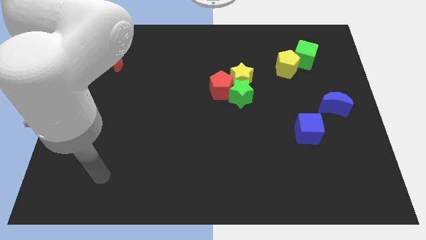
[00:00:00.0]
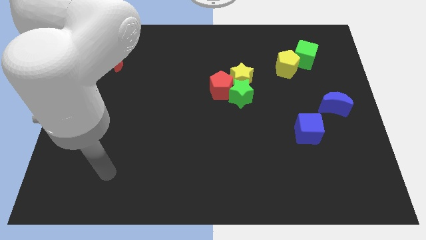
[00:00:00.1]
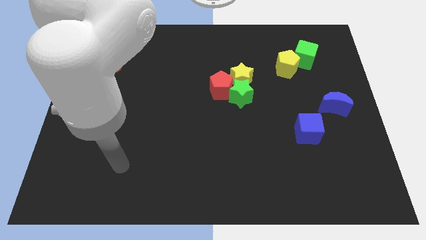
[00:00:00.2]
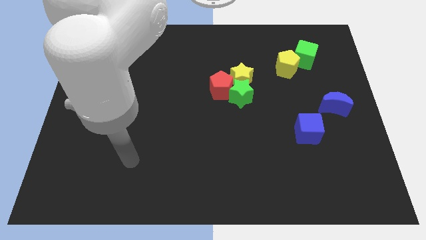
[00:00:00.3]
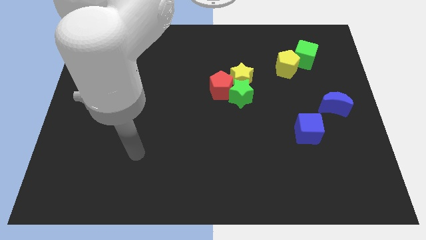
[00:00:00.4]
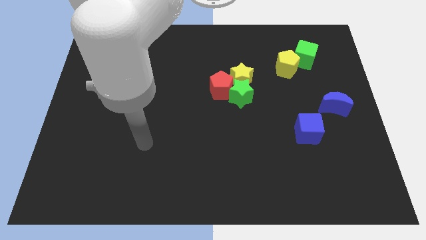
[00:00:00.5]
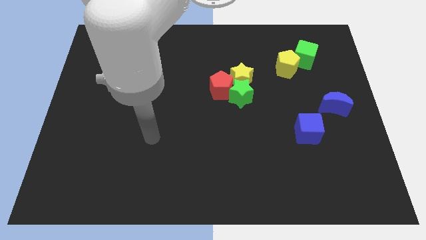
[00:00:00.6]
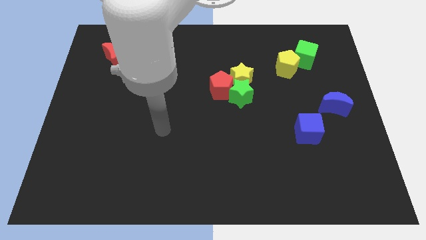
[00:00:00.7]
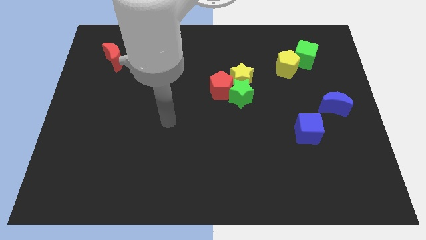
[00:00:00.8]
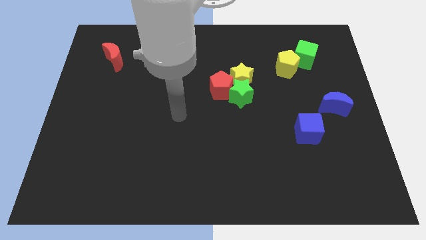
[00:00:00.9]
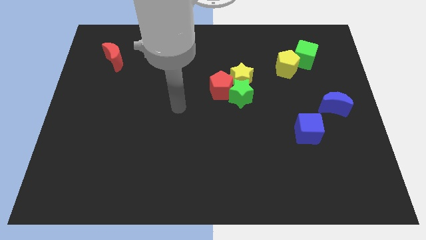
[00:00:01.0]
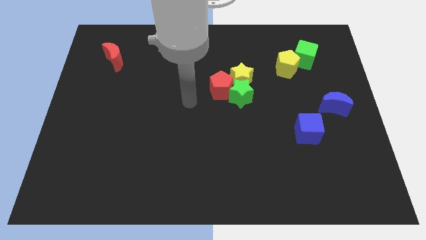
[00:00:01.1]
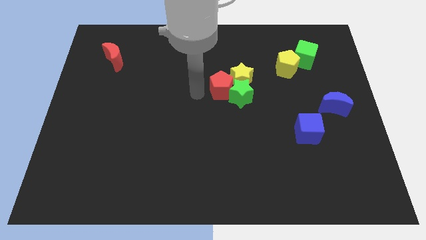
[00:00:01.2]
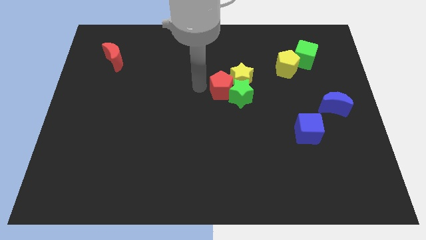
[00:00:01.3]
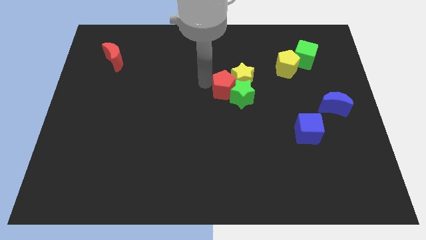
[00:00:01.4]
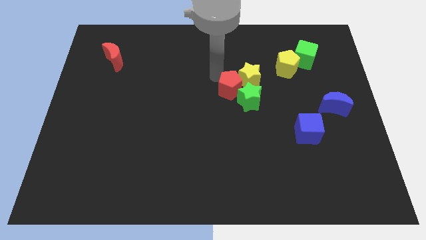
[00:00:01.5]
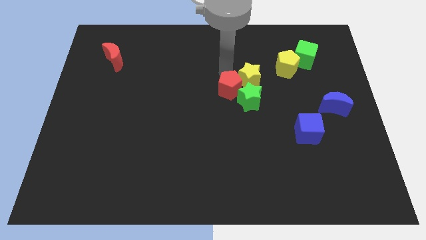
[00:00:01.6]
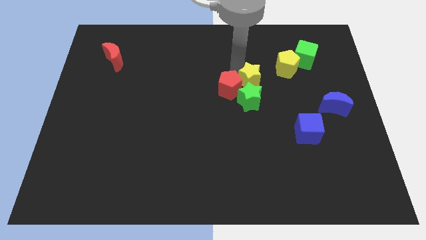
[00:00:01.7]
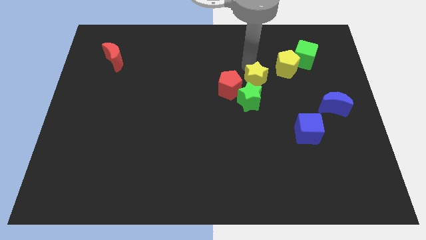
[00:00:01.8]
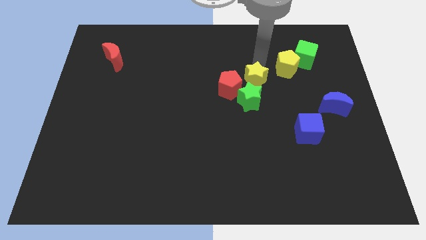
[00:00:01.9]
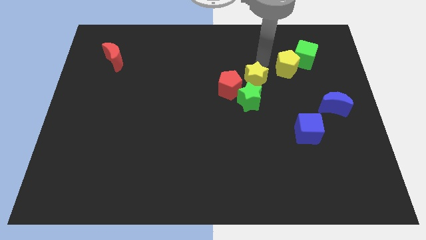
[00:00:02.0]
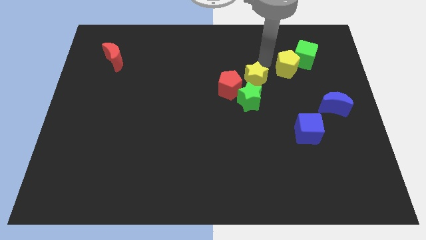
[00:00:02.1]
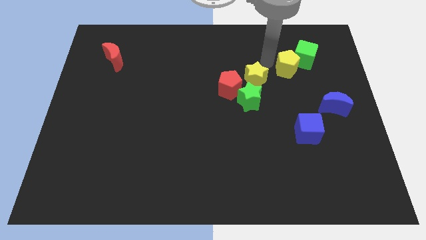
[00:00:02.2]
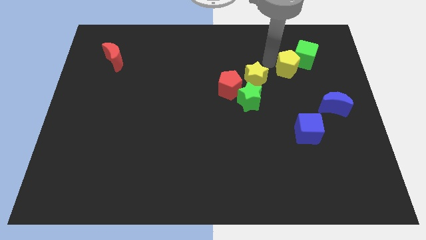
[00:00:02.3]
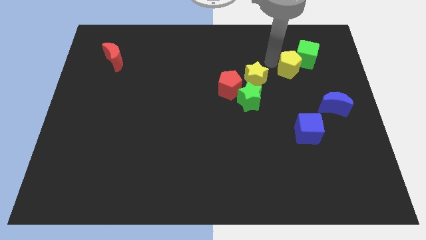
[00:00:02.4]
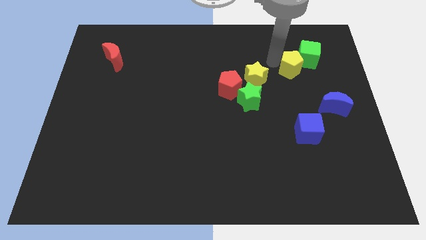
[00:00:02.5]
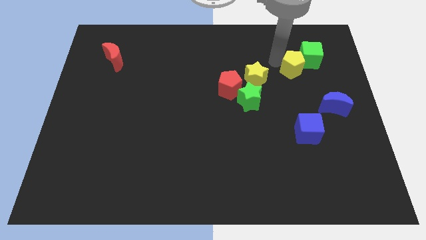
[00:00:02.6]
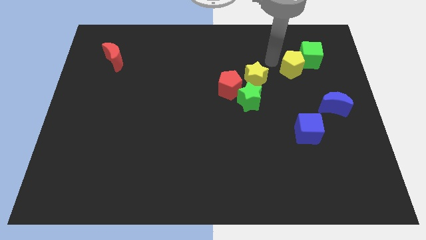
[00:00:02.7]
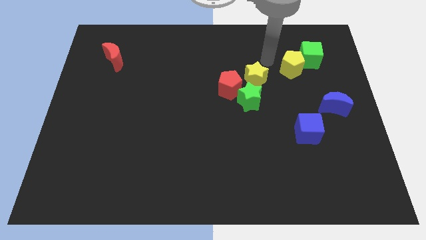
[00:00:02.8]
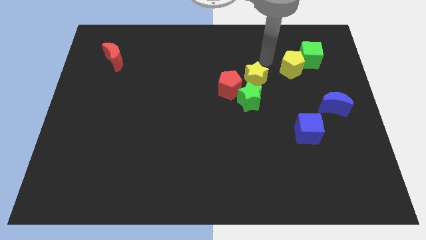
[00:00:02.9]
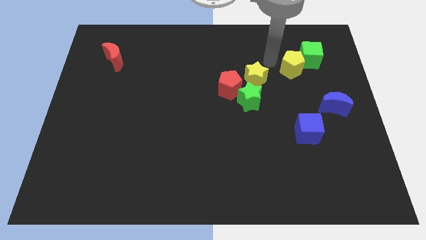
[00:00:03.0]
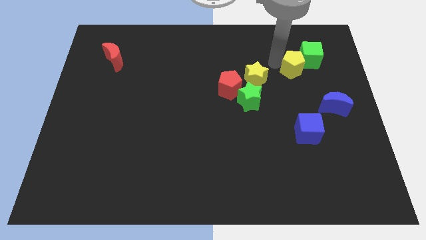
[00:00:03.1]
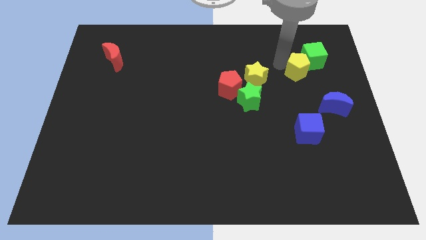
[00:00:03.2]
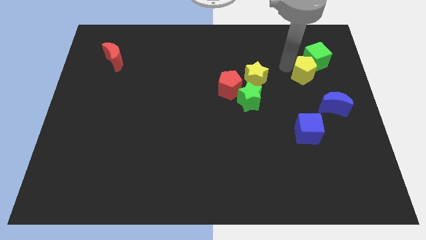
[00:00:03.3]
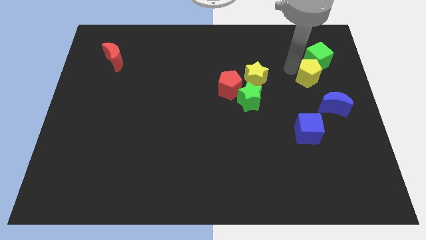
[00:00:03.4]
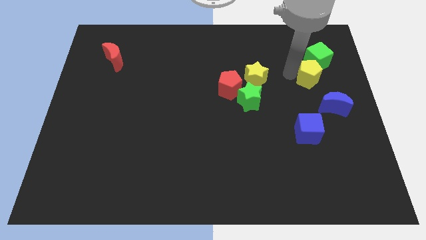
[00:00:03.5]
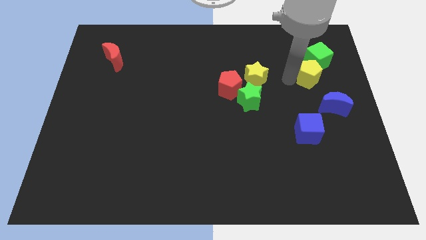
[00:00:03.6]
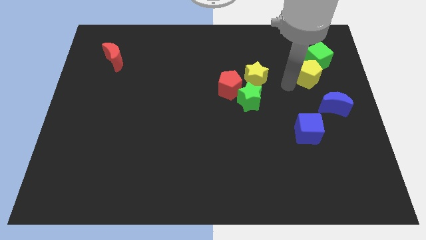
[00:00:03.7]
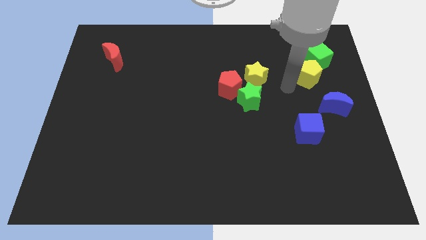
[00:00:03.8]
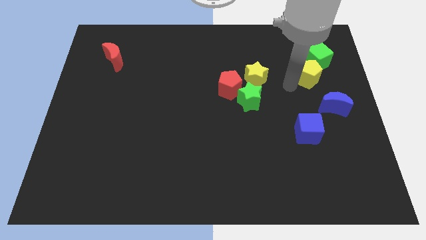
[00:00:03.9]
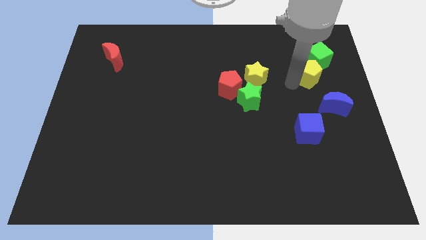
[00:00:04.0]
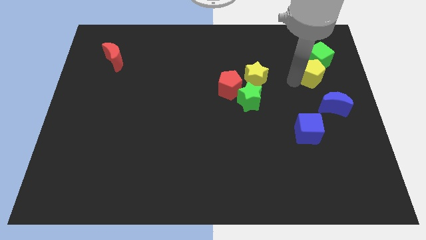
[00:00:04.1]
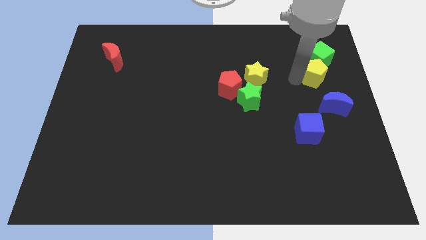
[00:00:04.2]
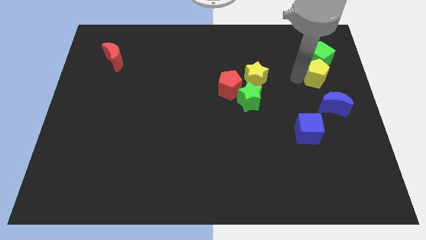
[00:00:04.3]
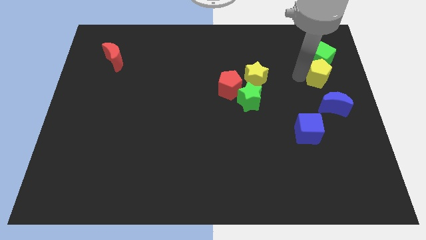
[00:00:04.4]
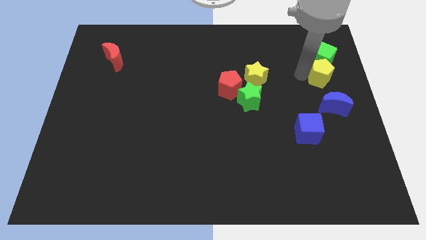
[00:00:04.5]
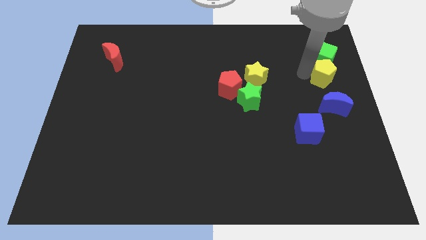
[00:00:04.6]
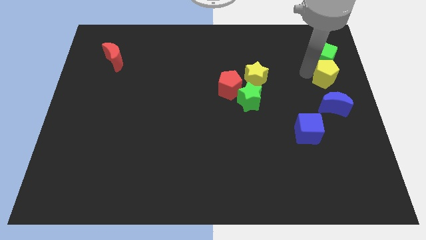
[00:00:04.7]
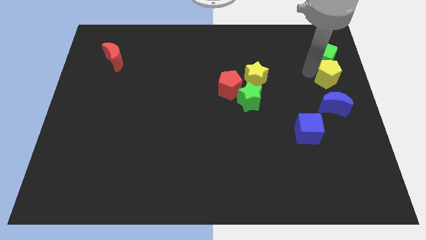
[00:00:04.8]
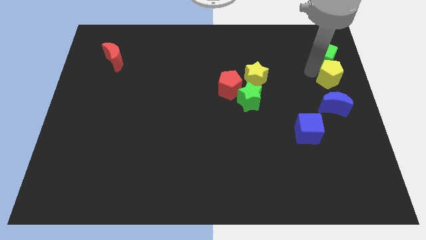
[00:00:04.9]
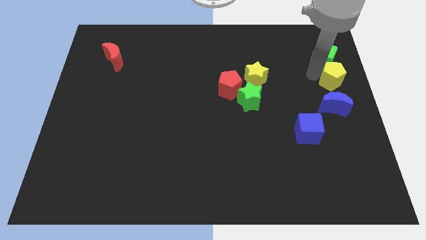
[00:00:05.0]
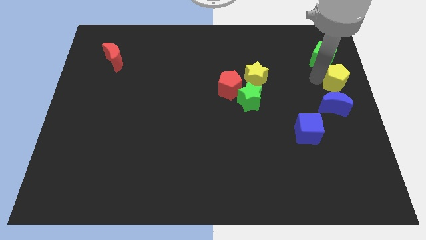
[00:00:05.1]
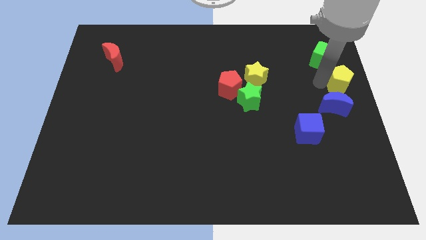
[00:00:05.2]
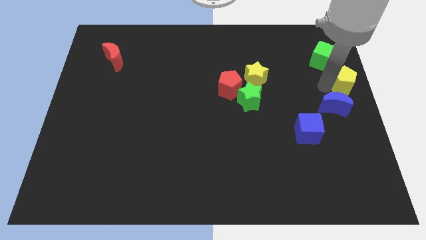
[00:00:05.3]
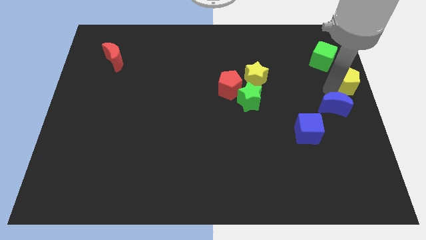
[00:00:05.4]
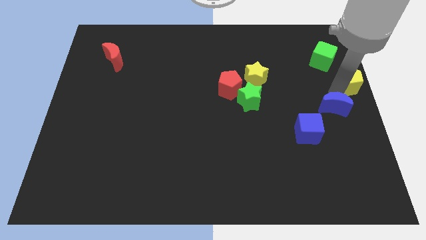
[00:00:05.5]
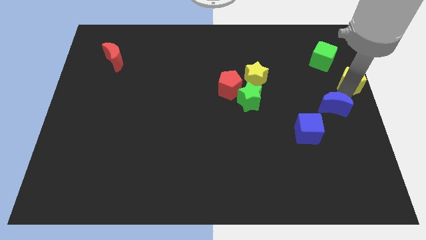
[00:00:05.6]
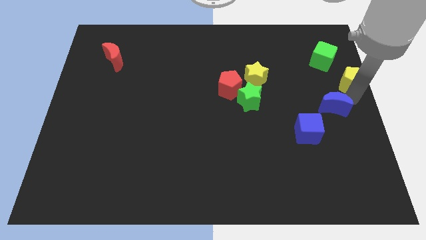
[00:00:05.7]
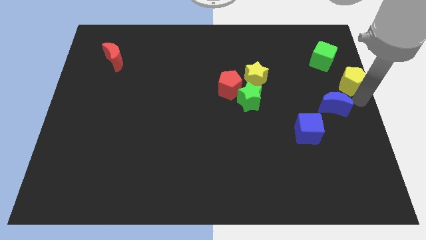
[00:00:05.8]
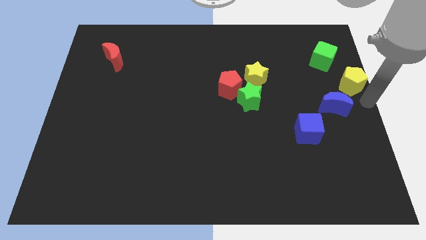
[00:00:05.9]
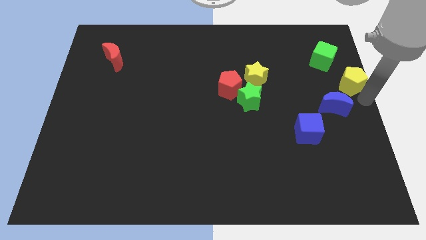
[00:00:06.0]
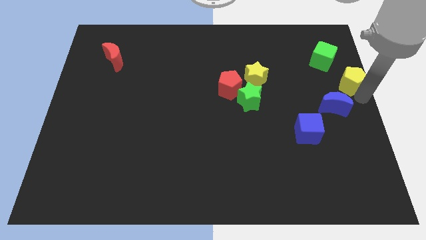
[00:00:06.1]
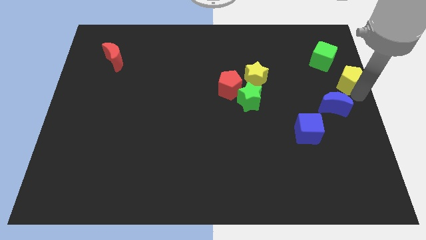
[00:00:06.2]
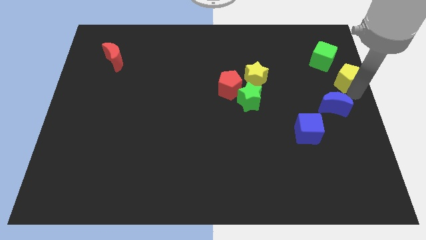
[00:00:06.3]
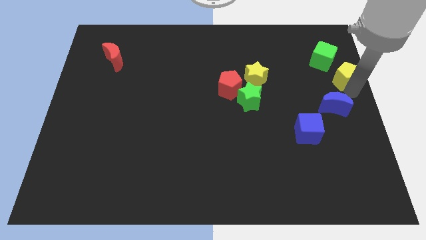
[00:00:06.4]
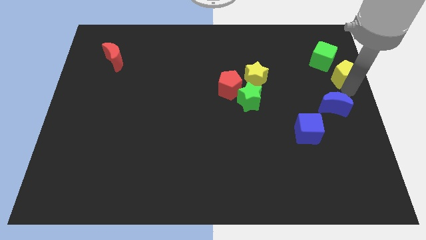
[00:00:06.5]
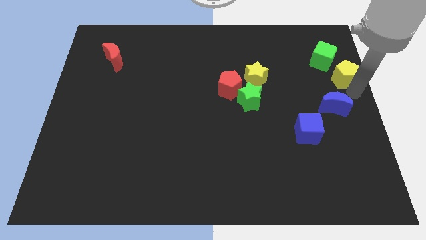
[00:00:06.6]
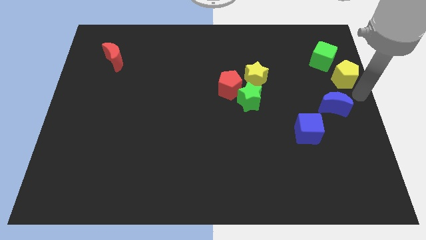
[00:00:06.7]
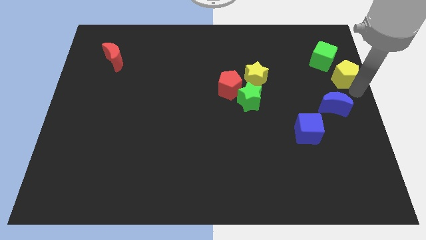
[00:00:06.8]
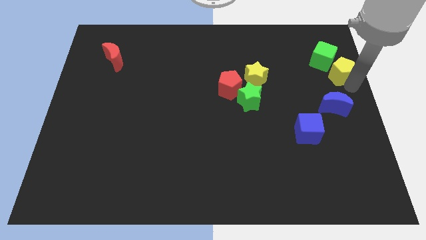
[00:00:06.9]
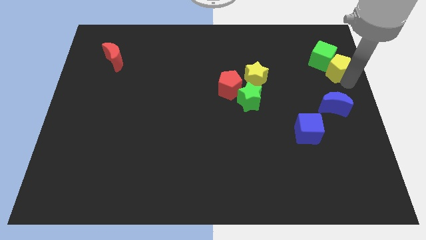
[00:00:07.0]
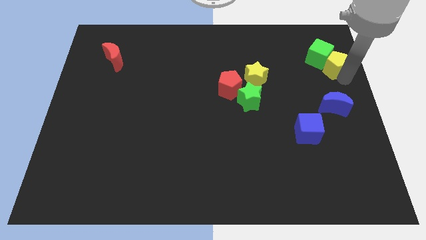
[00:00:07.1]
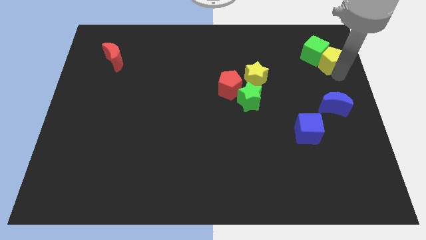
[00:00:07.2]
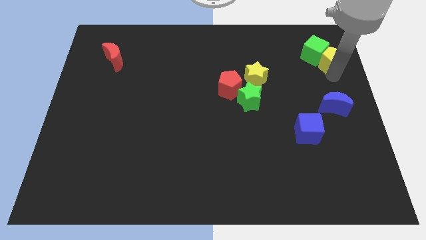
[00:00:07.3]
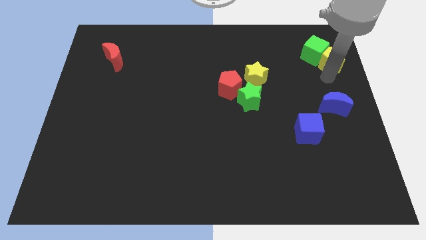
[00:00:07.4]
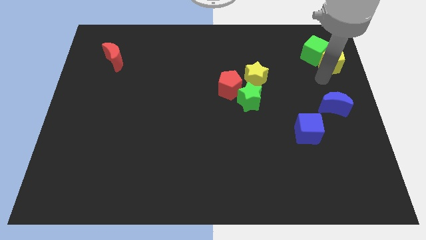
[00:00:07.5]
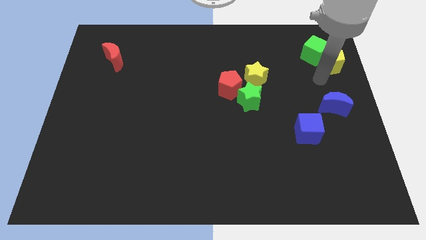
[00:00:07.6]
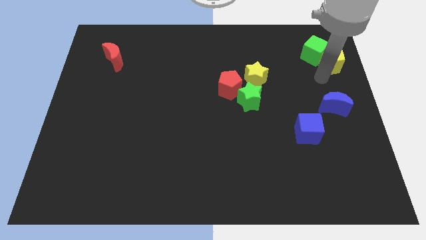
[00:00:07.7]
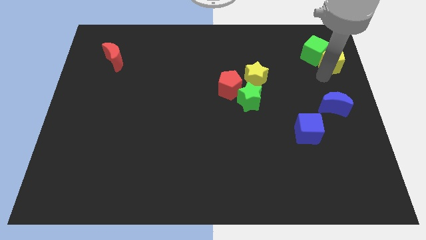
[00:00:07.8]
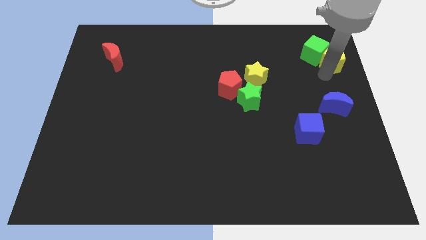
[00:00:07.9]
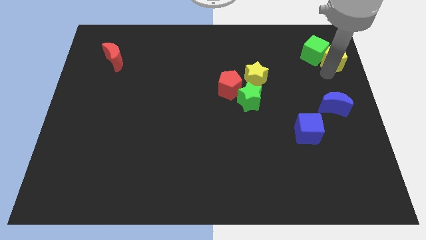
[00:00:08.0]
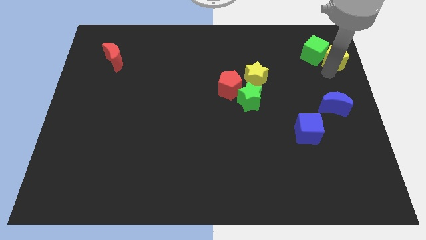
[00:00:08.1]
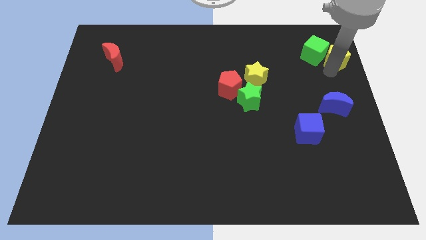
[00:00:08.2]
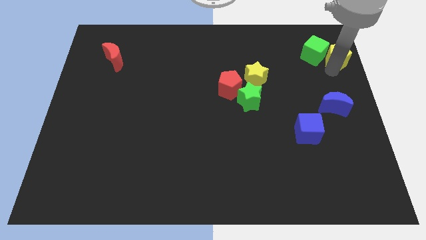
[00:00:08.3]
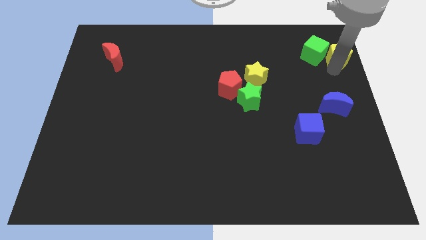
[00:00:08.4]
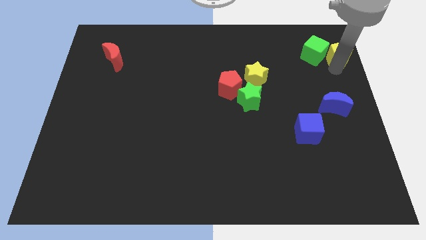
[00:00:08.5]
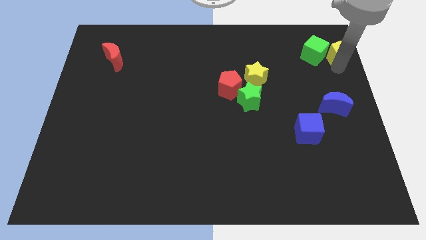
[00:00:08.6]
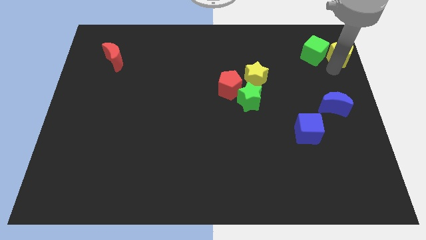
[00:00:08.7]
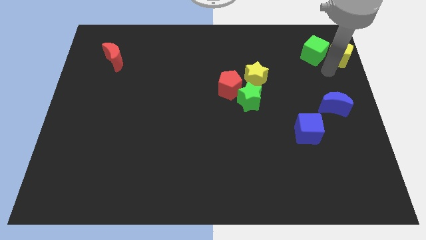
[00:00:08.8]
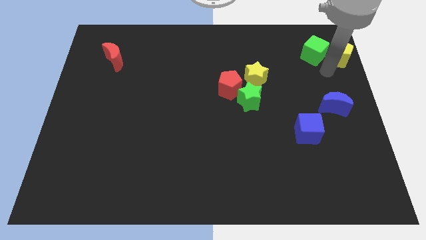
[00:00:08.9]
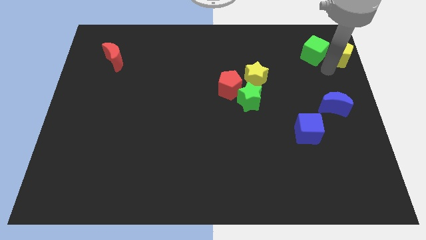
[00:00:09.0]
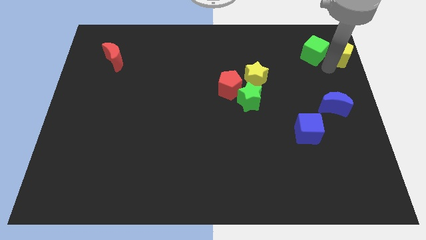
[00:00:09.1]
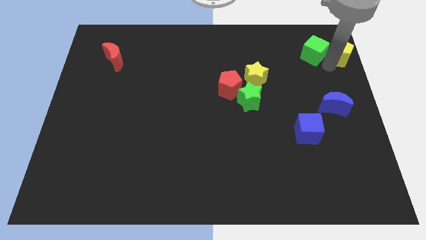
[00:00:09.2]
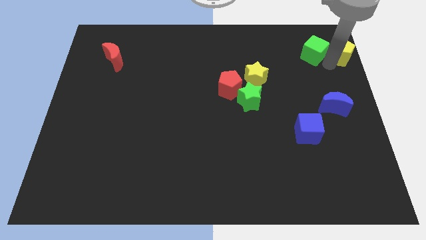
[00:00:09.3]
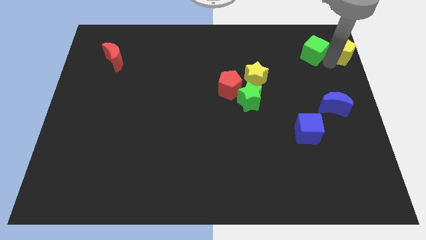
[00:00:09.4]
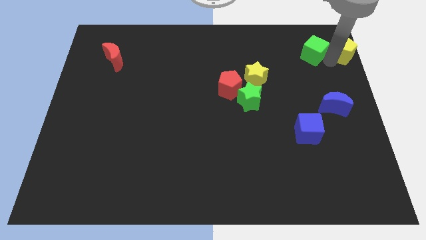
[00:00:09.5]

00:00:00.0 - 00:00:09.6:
slide the yellow pentagon to the top right
